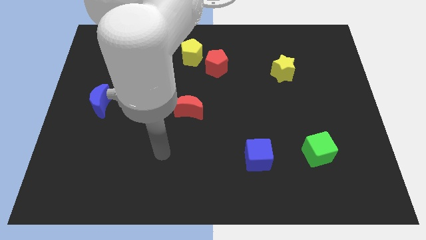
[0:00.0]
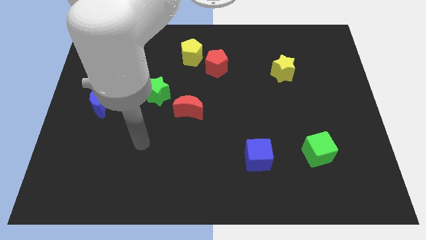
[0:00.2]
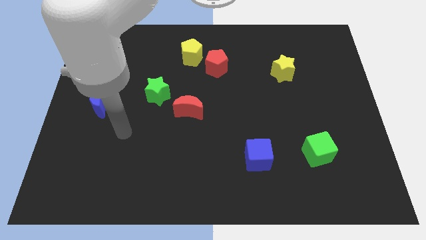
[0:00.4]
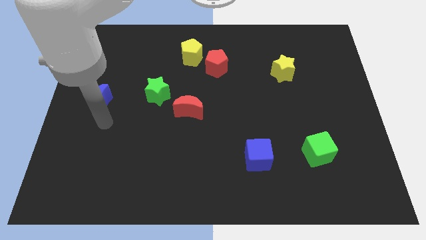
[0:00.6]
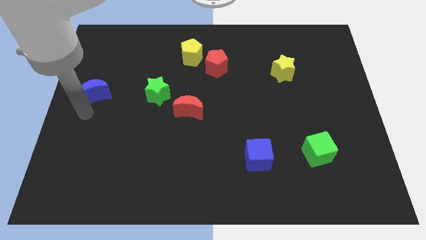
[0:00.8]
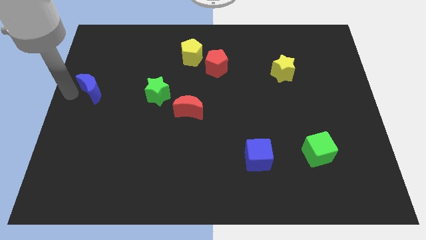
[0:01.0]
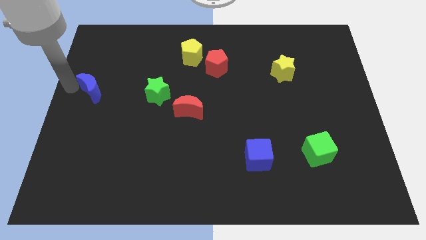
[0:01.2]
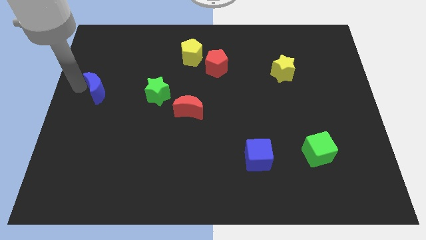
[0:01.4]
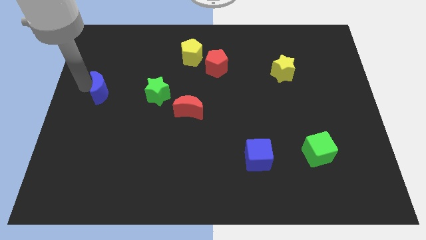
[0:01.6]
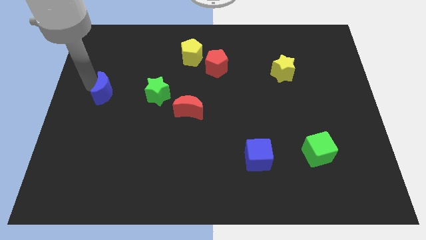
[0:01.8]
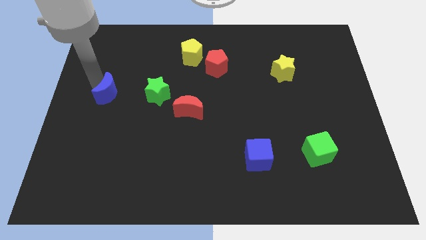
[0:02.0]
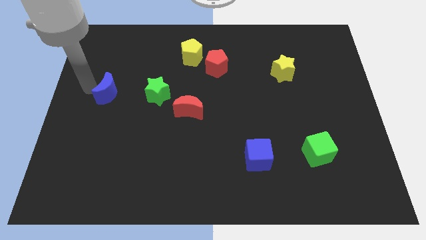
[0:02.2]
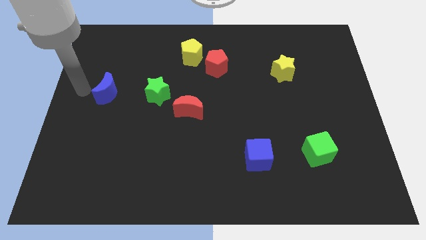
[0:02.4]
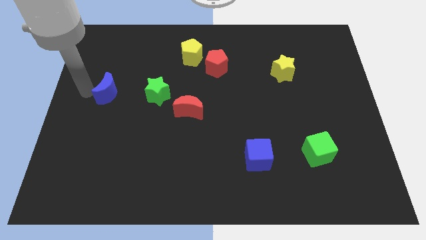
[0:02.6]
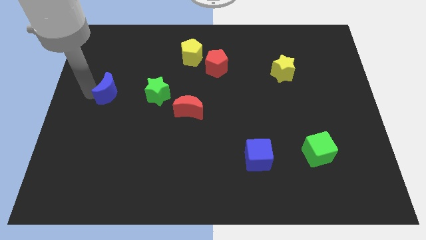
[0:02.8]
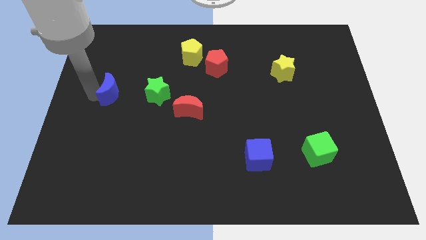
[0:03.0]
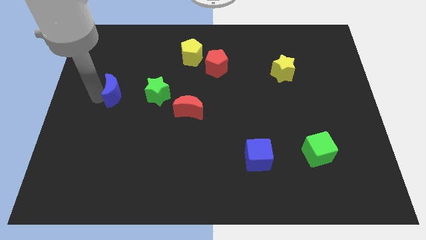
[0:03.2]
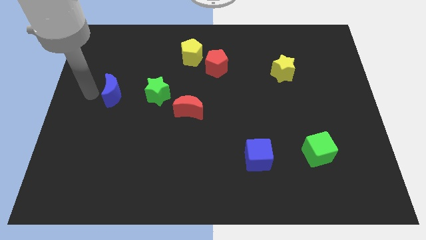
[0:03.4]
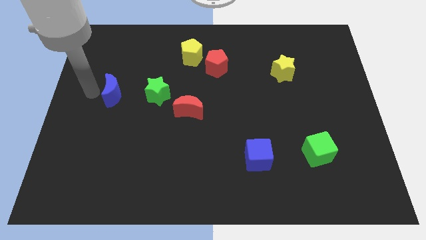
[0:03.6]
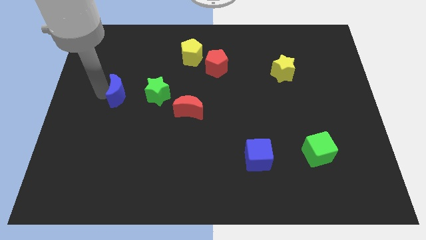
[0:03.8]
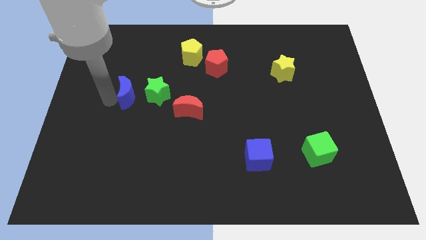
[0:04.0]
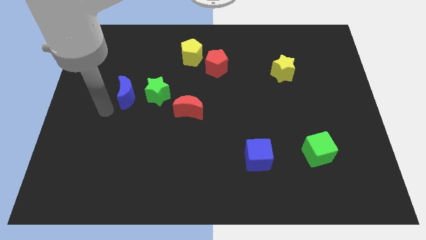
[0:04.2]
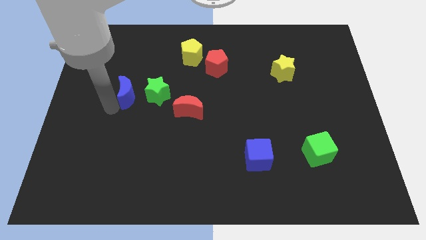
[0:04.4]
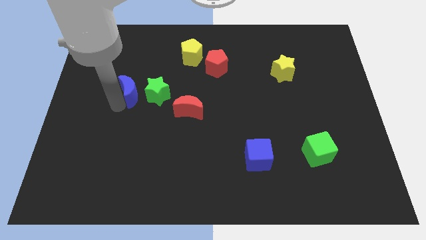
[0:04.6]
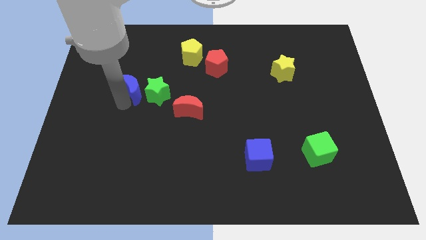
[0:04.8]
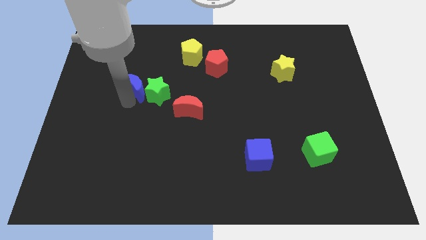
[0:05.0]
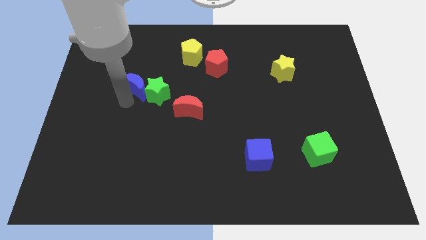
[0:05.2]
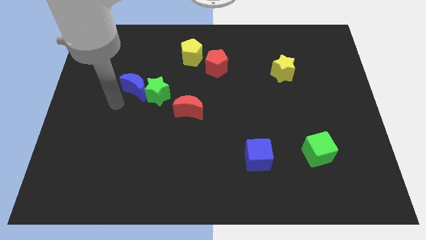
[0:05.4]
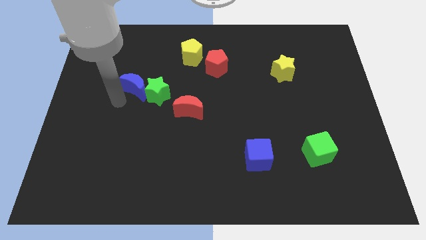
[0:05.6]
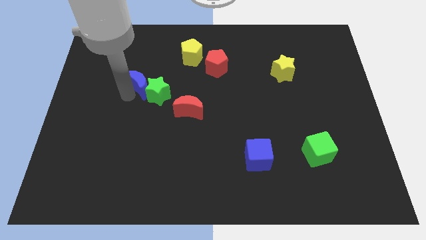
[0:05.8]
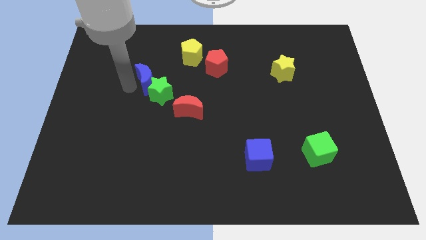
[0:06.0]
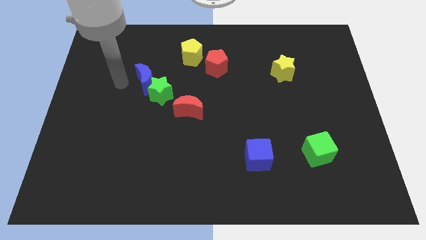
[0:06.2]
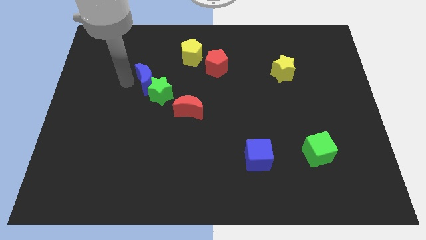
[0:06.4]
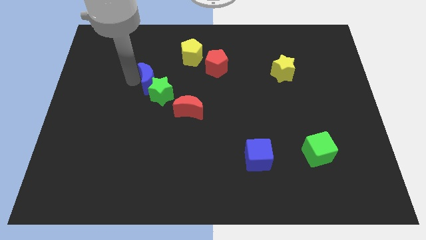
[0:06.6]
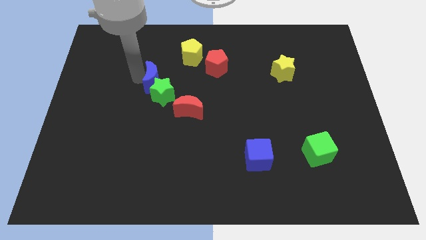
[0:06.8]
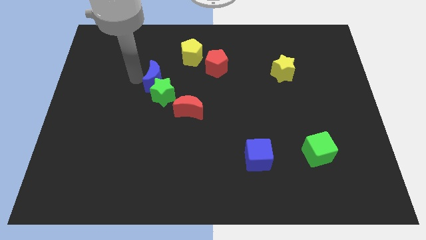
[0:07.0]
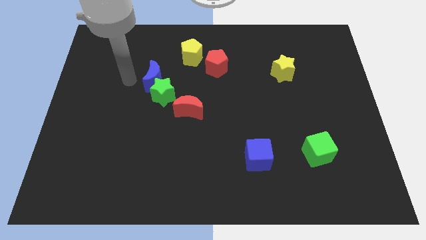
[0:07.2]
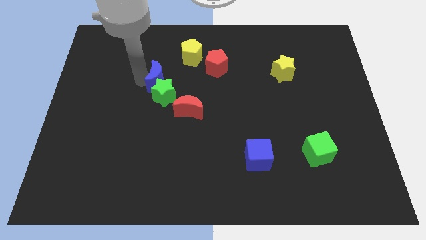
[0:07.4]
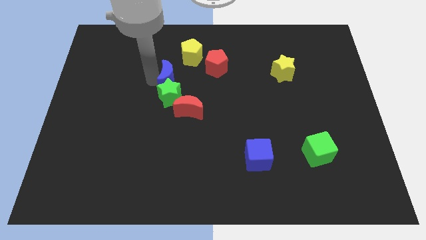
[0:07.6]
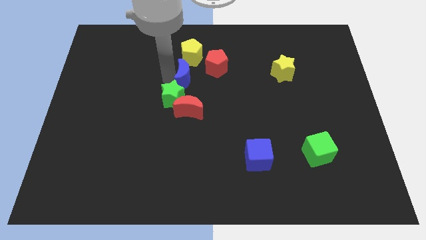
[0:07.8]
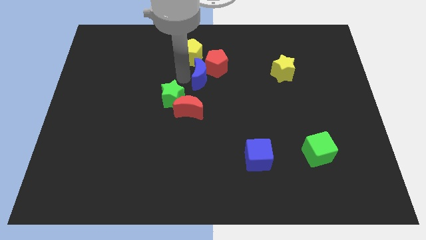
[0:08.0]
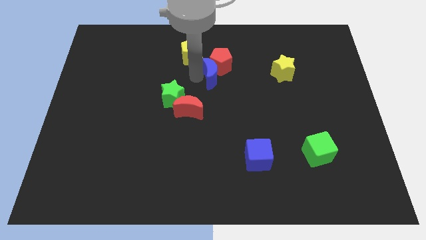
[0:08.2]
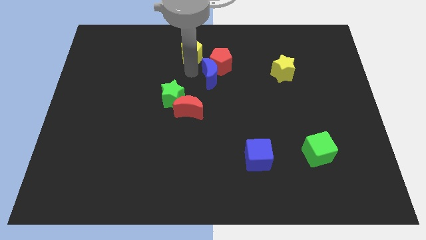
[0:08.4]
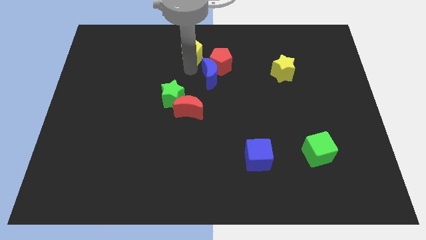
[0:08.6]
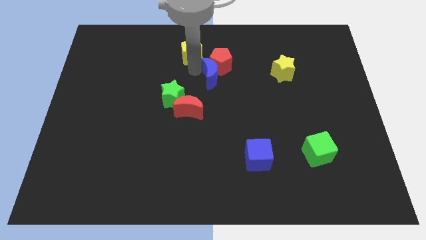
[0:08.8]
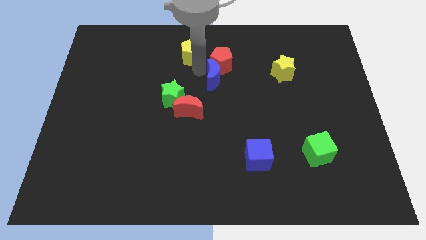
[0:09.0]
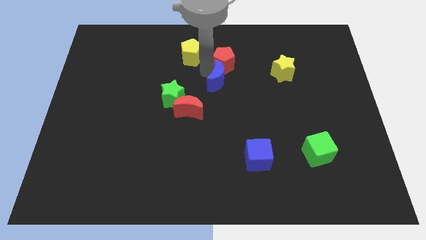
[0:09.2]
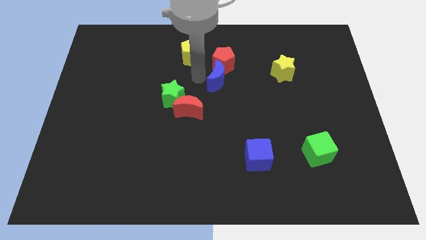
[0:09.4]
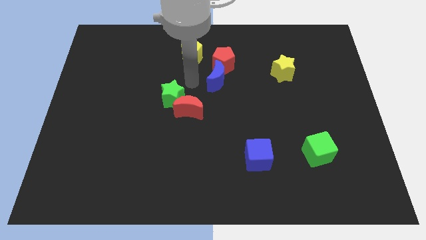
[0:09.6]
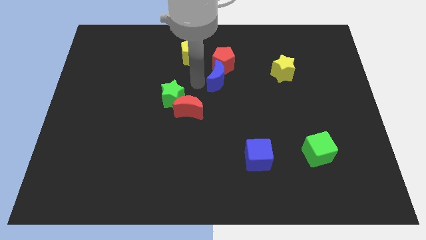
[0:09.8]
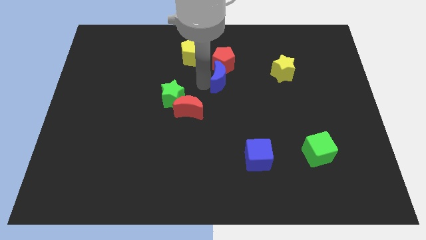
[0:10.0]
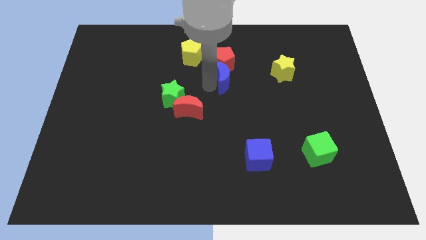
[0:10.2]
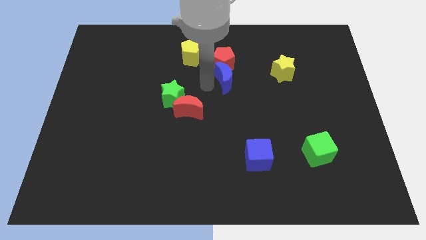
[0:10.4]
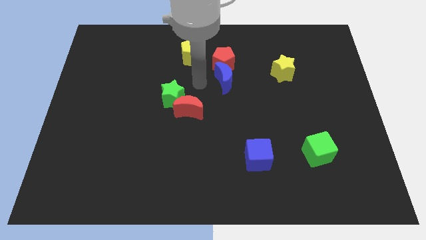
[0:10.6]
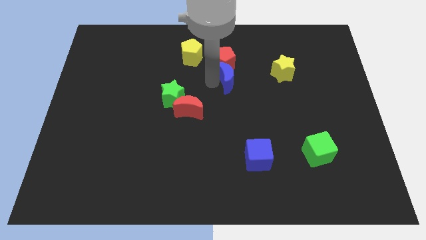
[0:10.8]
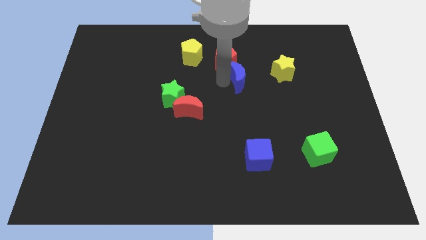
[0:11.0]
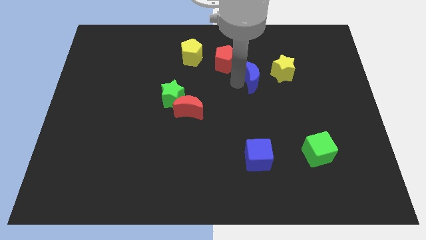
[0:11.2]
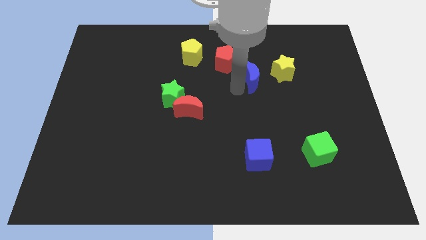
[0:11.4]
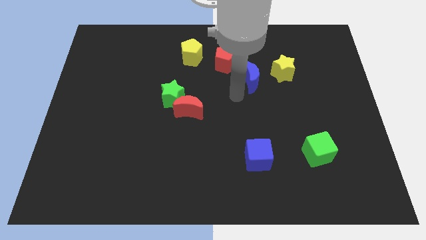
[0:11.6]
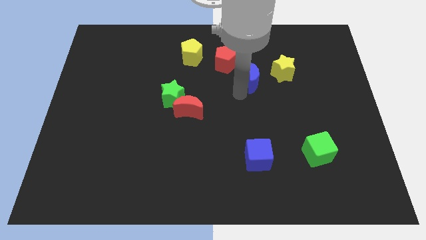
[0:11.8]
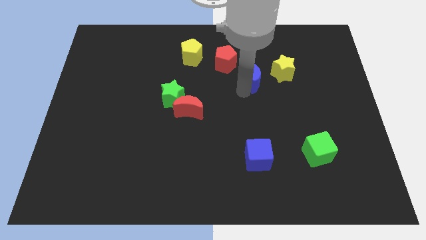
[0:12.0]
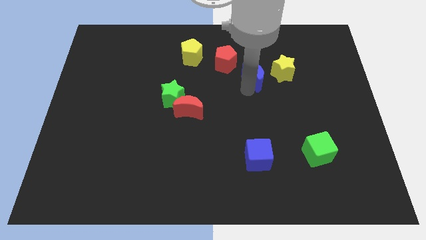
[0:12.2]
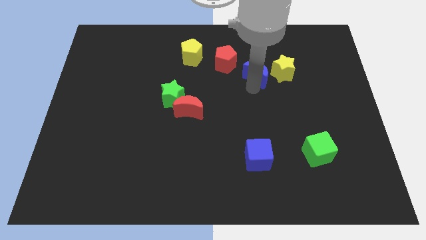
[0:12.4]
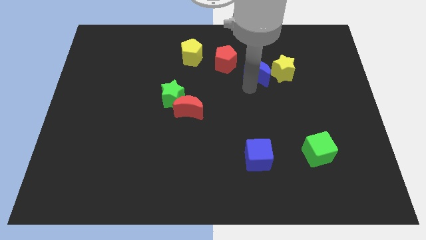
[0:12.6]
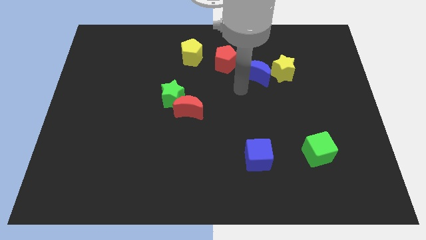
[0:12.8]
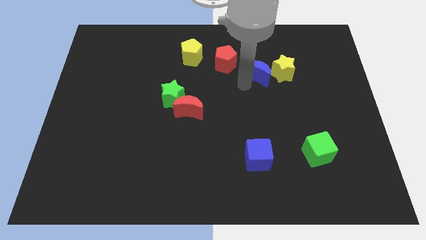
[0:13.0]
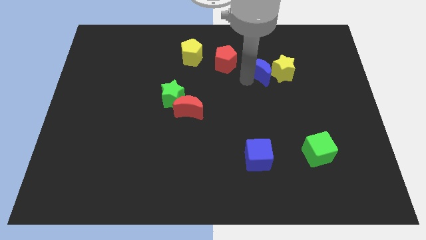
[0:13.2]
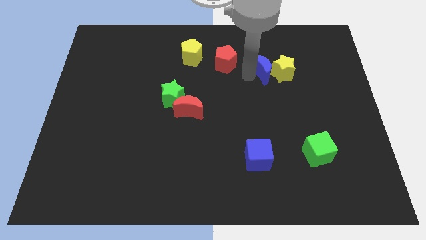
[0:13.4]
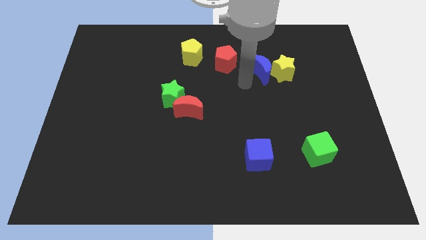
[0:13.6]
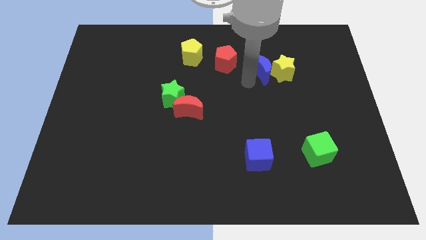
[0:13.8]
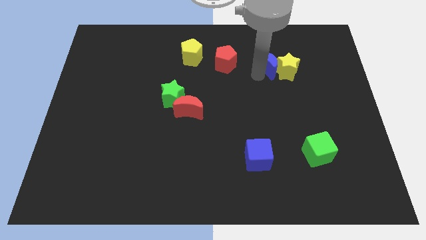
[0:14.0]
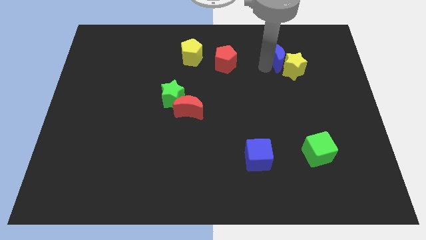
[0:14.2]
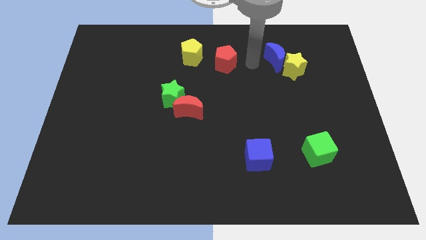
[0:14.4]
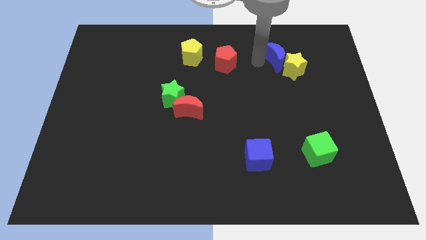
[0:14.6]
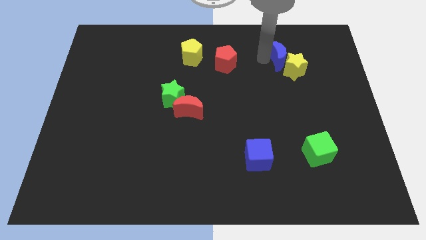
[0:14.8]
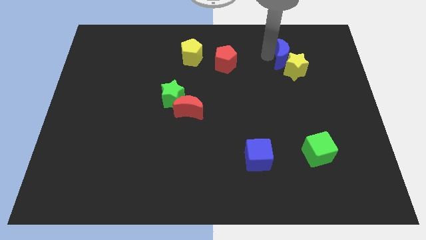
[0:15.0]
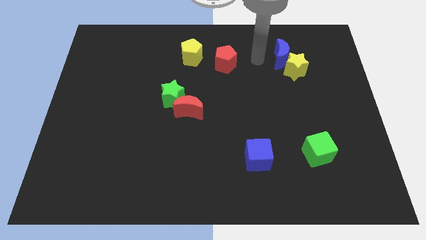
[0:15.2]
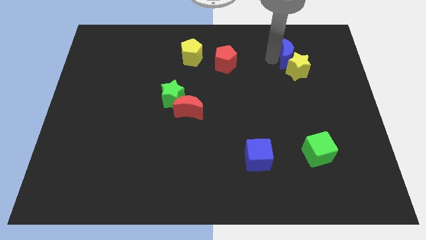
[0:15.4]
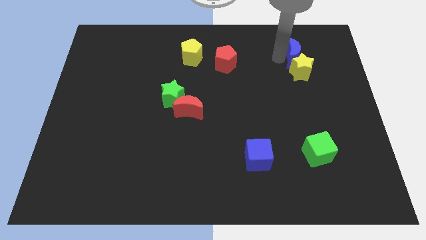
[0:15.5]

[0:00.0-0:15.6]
push the blue moon diagonally up and to the right of the yellow star
